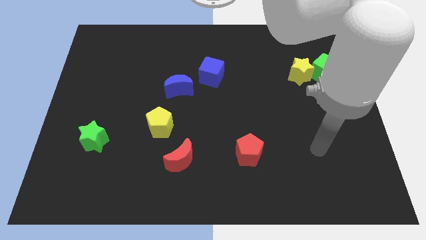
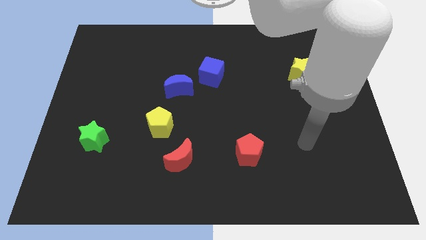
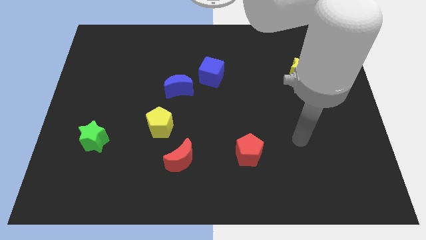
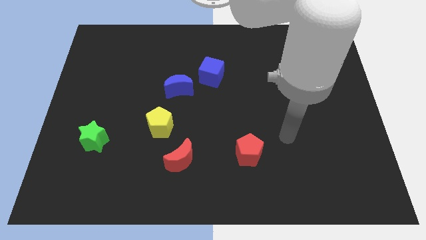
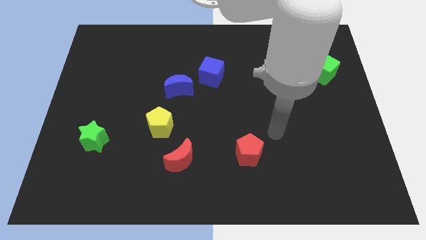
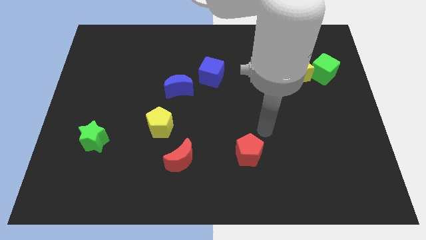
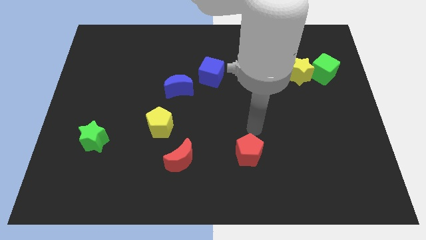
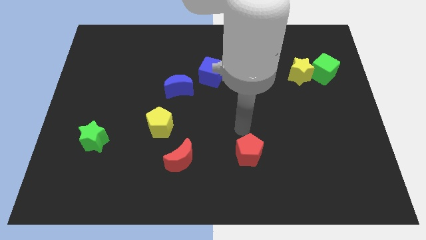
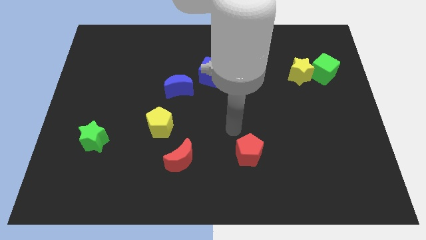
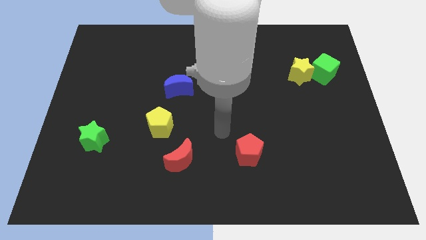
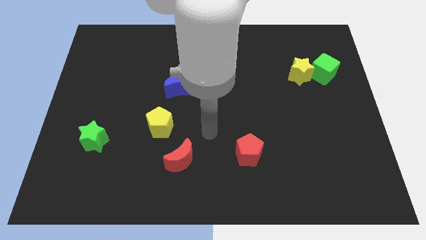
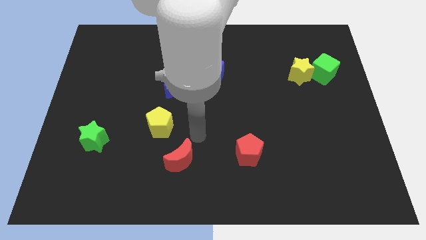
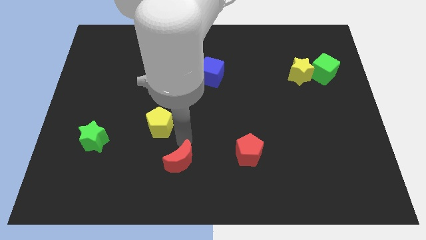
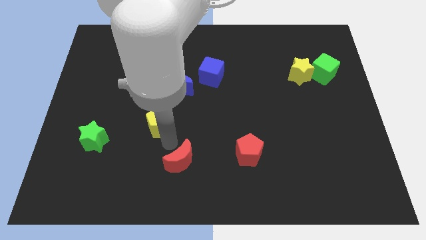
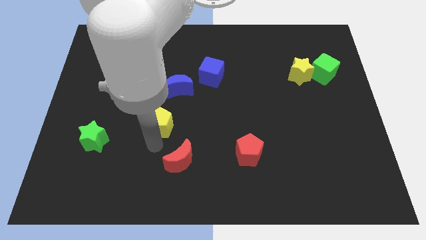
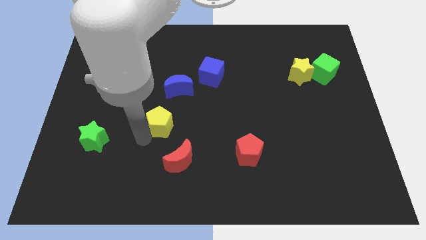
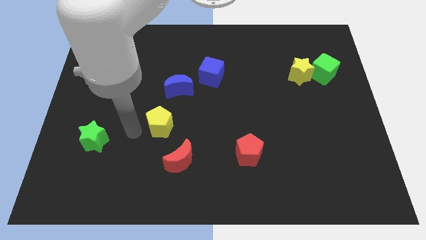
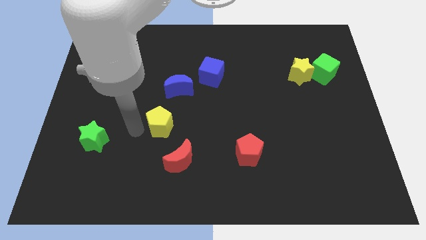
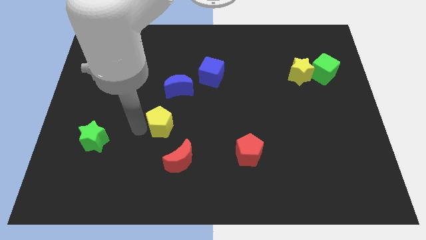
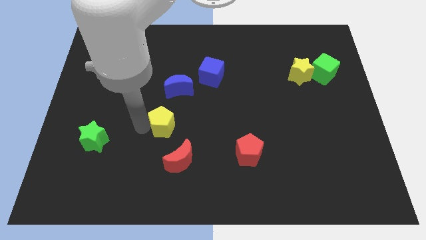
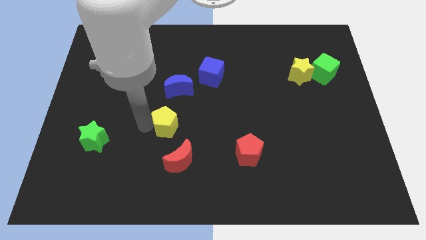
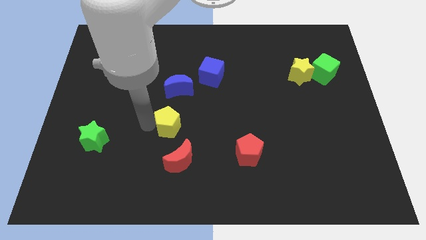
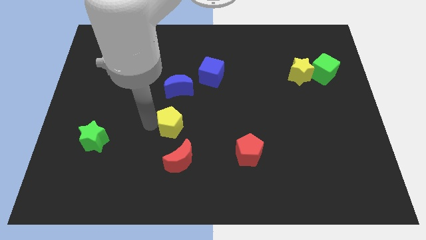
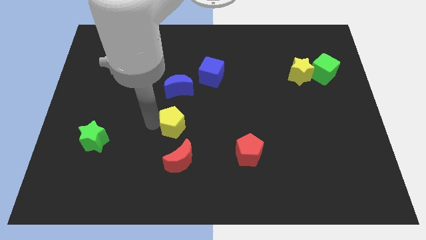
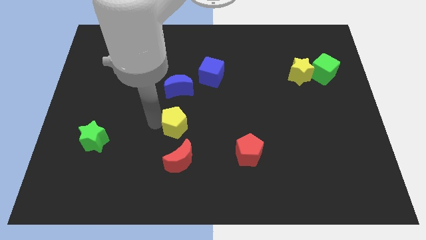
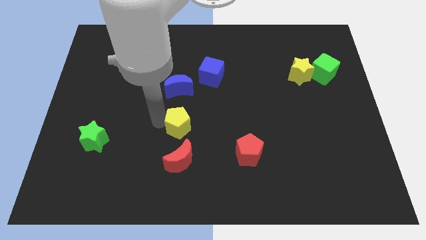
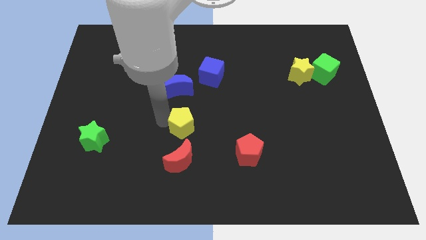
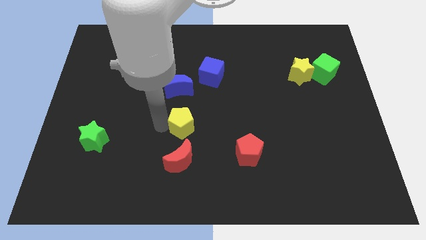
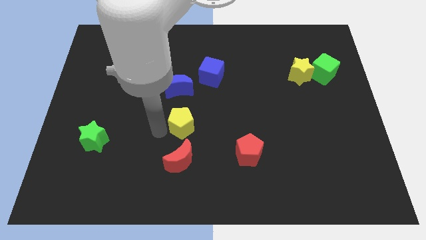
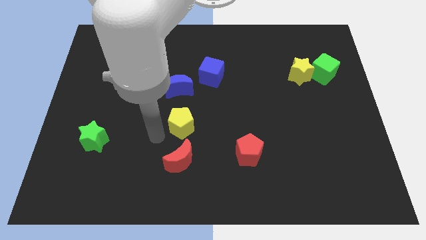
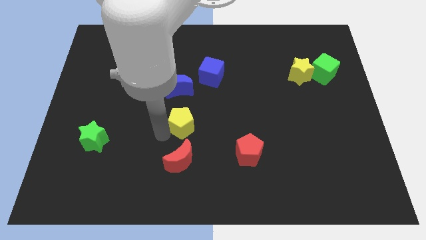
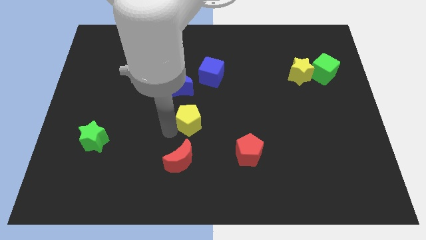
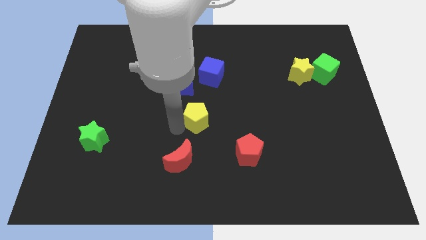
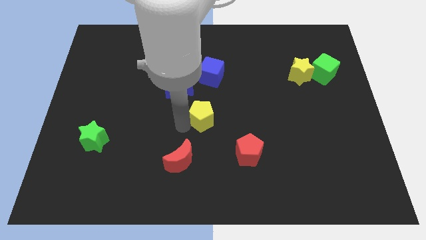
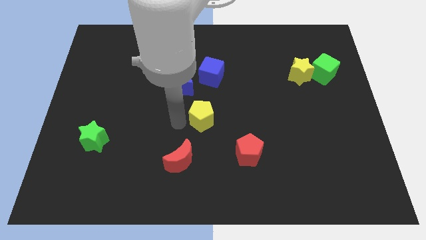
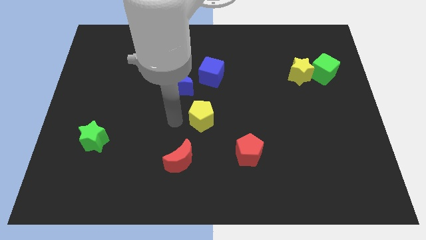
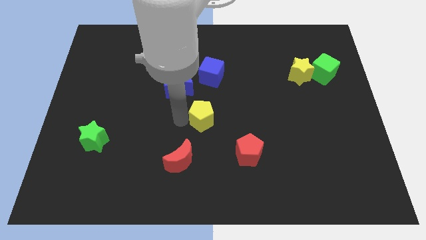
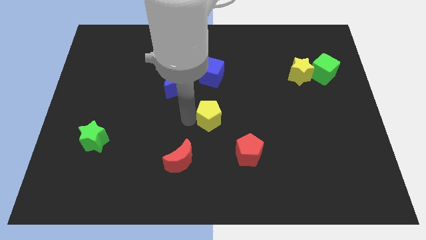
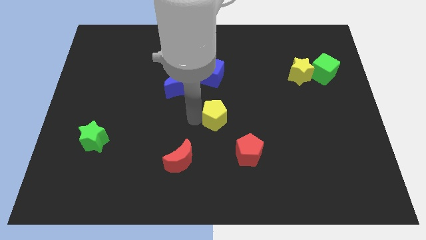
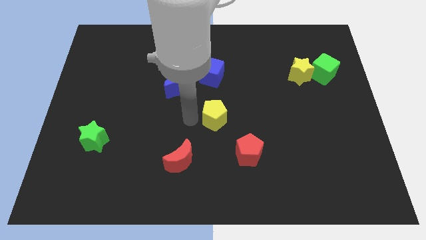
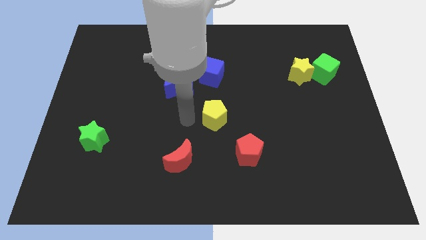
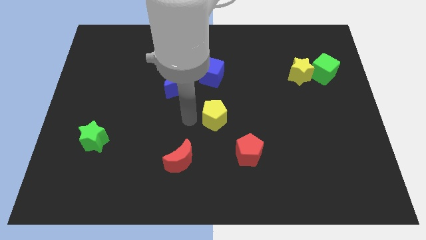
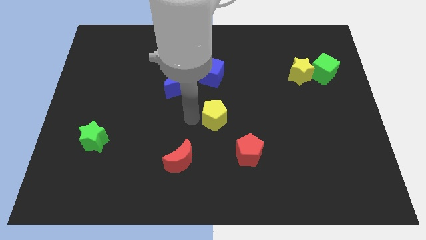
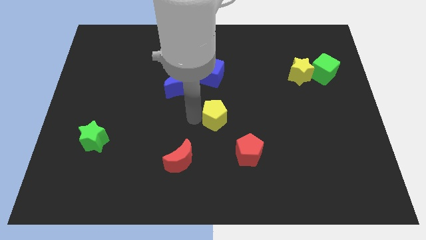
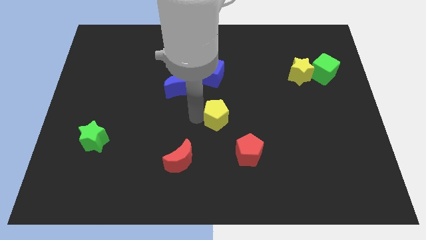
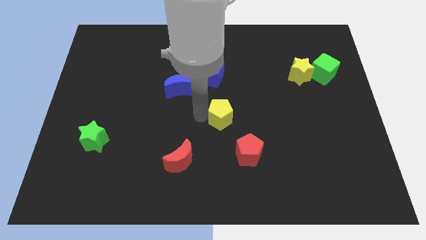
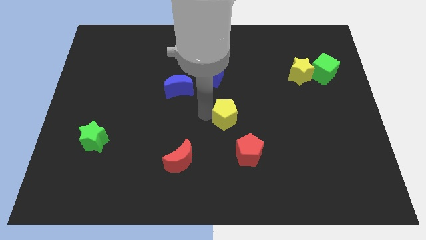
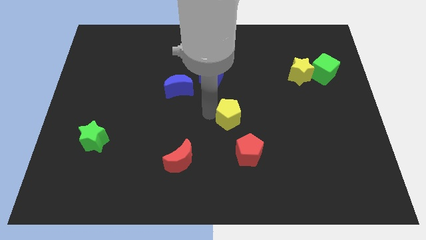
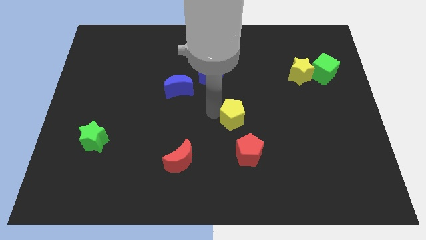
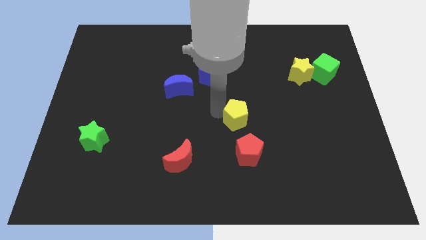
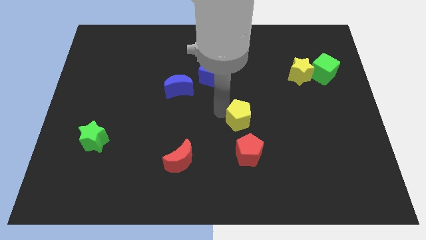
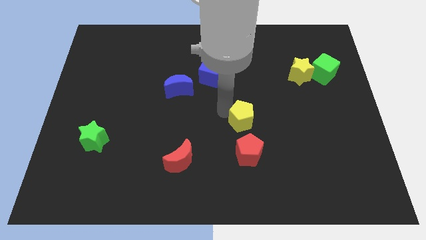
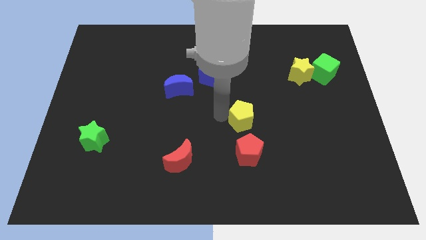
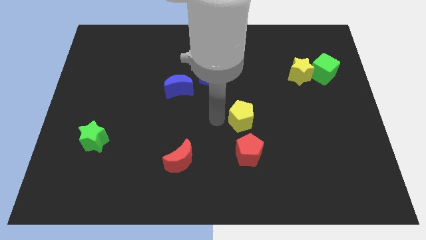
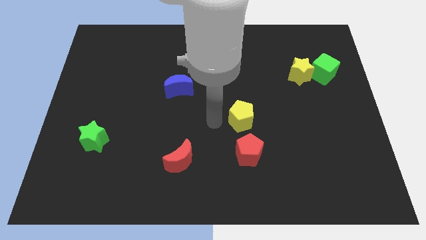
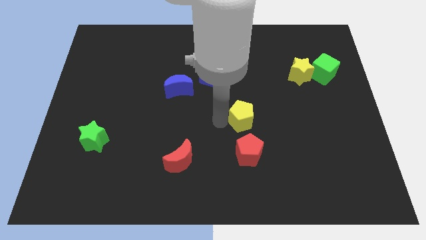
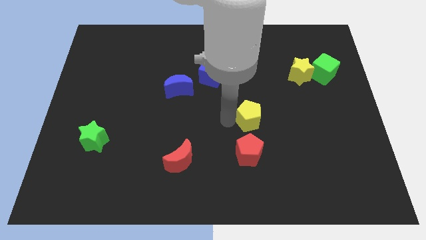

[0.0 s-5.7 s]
slide the yellow pentagon right

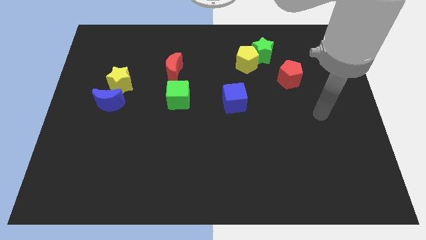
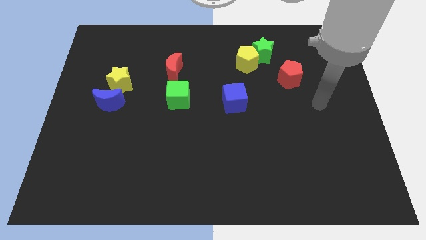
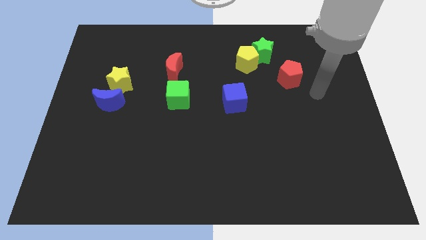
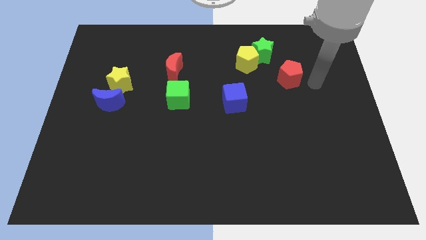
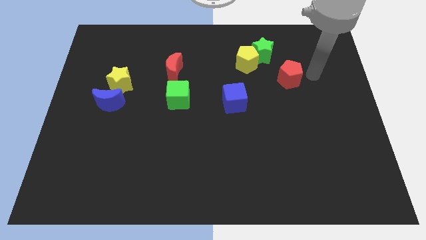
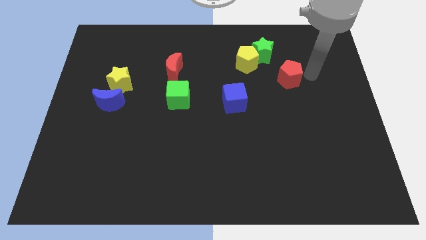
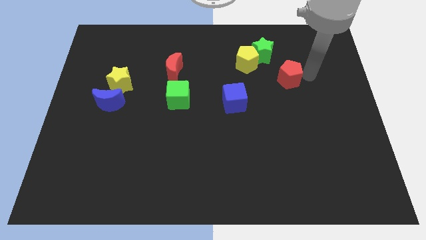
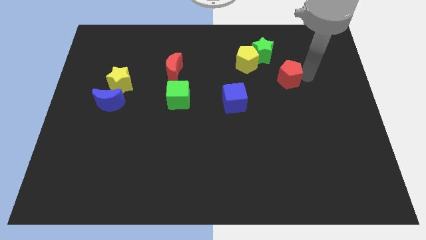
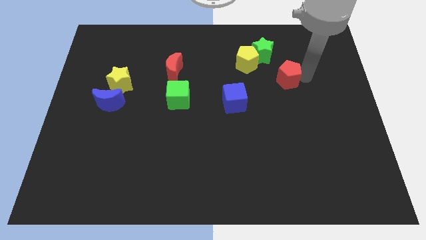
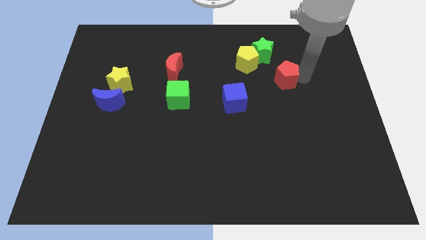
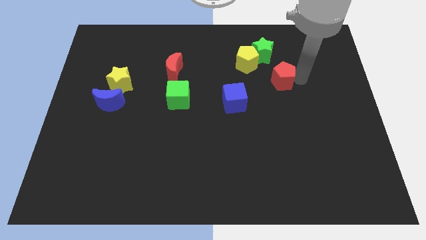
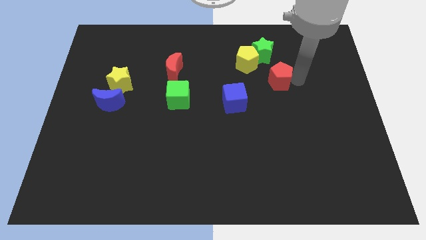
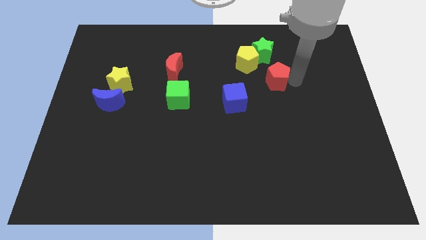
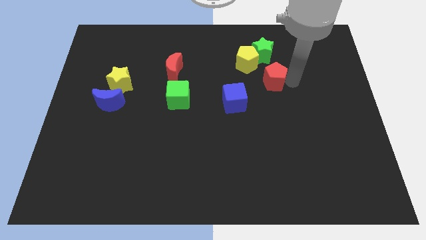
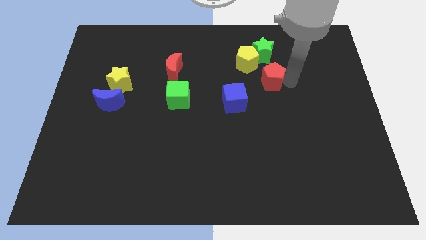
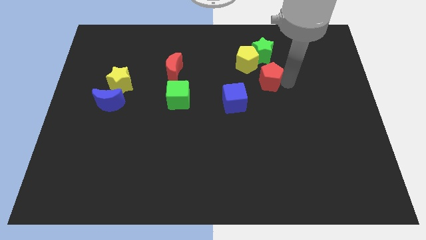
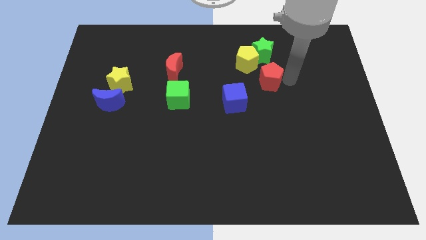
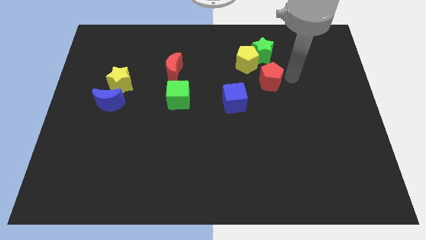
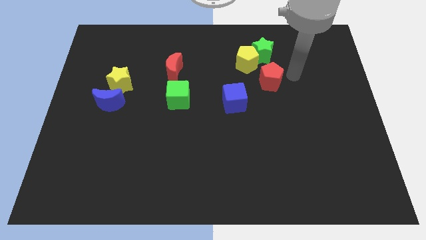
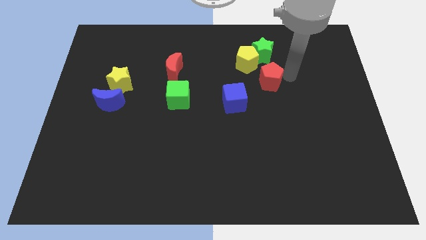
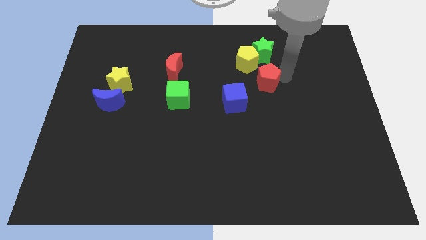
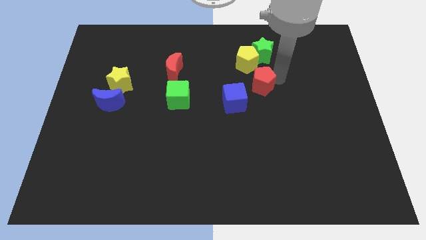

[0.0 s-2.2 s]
move the red pentagon left slightly
